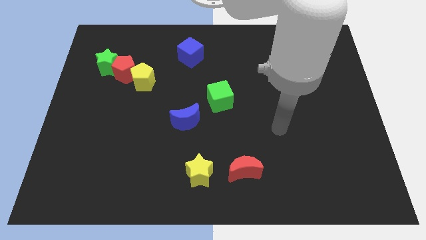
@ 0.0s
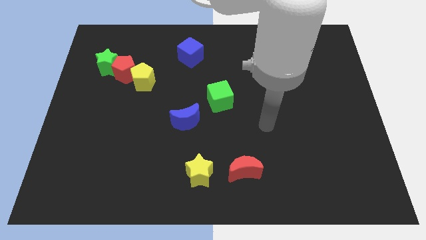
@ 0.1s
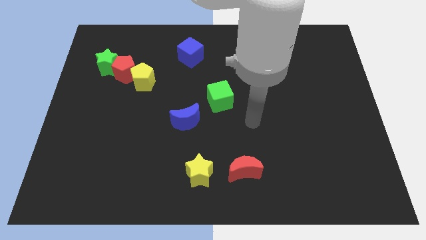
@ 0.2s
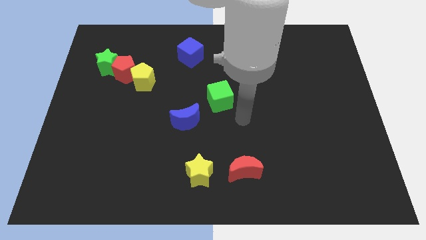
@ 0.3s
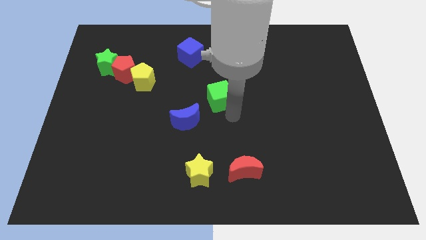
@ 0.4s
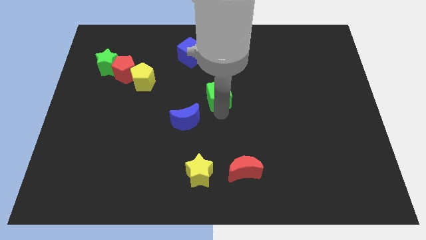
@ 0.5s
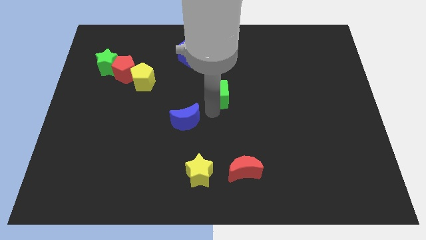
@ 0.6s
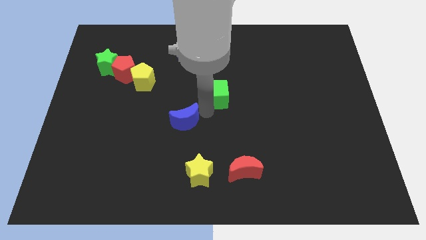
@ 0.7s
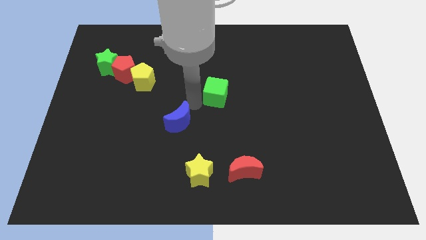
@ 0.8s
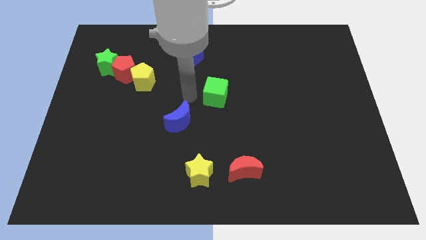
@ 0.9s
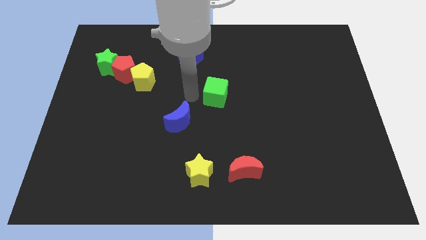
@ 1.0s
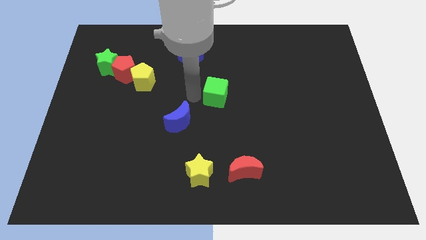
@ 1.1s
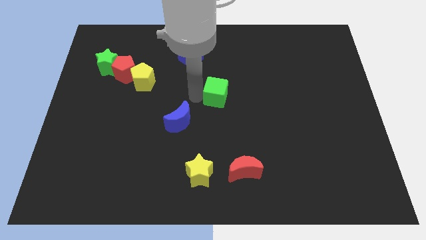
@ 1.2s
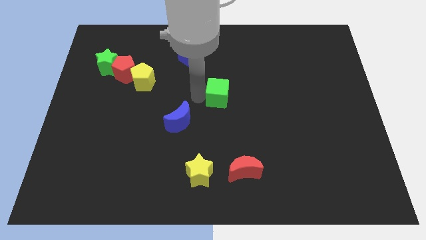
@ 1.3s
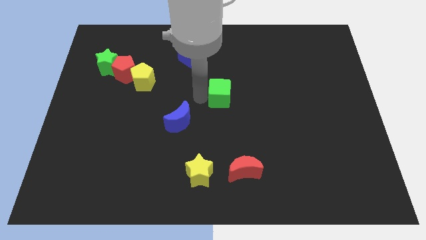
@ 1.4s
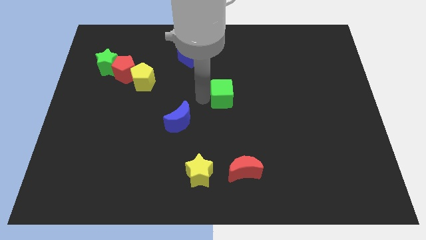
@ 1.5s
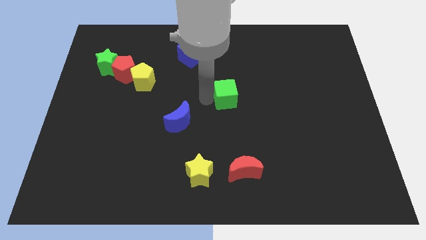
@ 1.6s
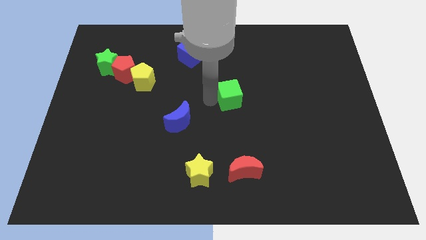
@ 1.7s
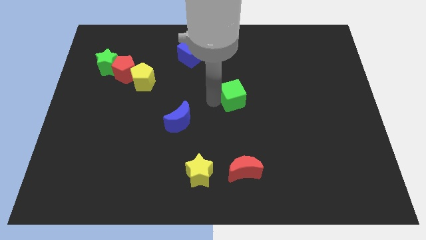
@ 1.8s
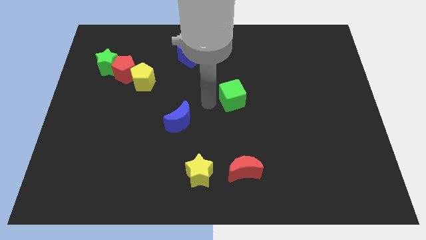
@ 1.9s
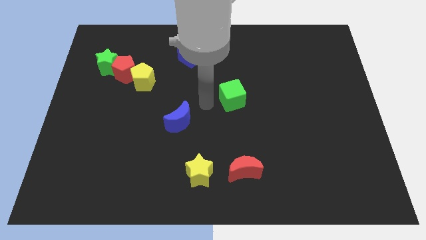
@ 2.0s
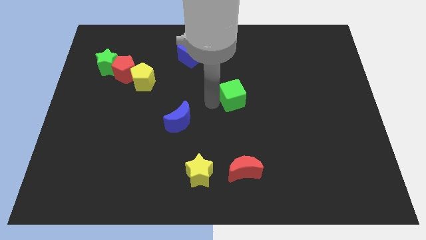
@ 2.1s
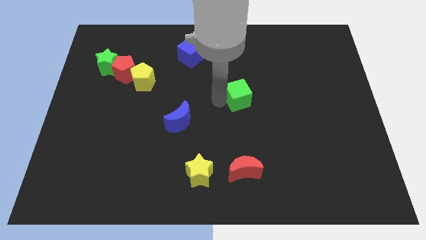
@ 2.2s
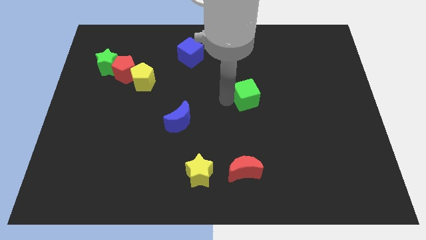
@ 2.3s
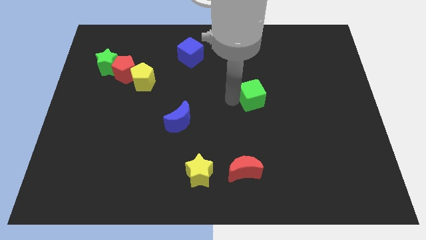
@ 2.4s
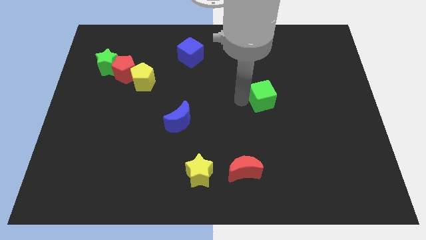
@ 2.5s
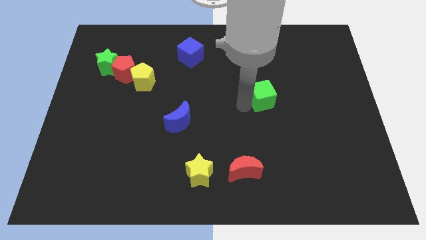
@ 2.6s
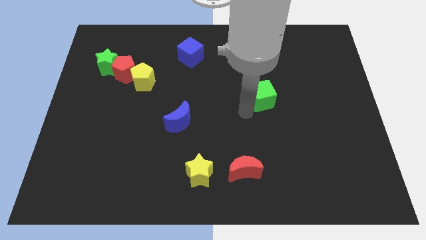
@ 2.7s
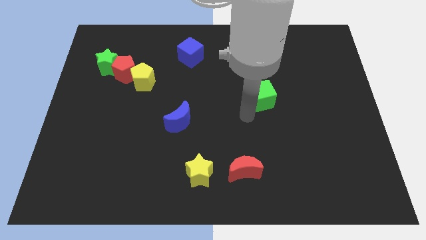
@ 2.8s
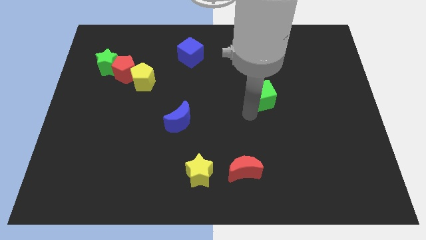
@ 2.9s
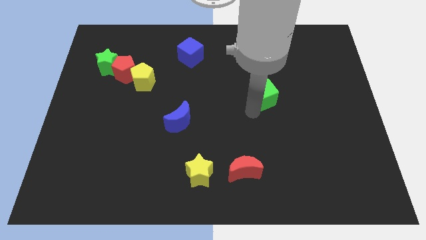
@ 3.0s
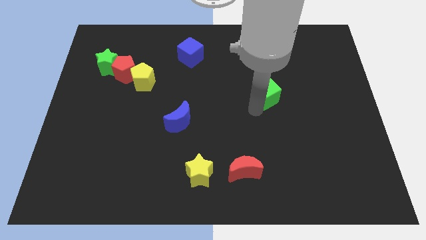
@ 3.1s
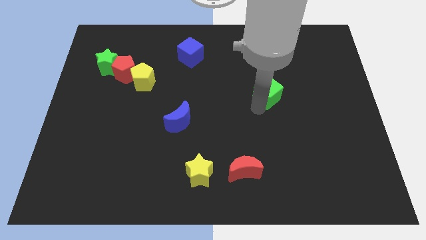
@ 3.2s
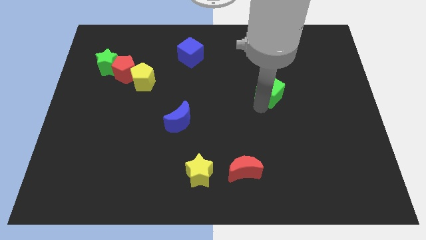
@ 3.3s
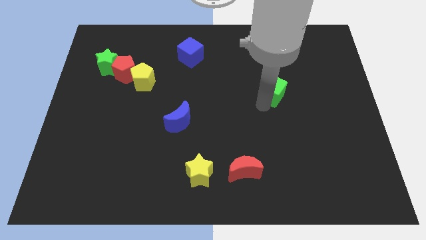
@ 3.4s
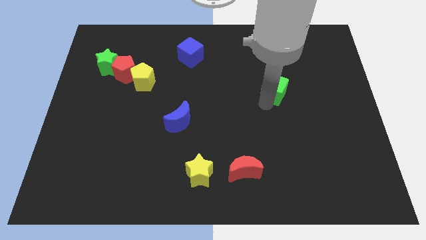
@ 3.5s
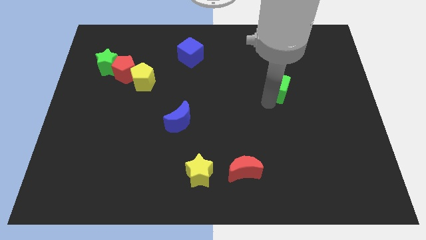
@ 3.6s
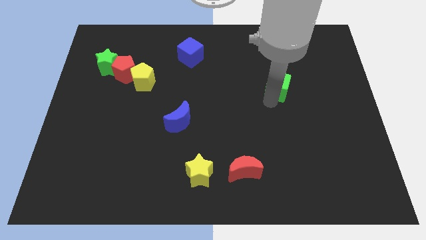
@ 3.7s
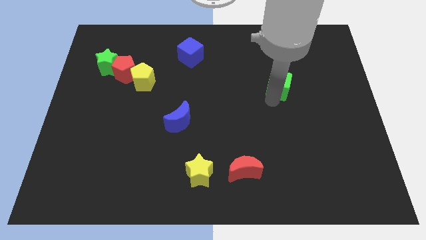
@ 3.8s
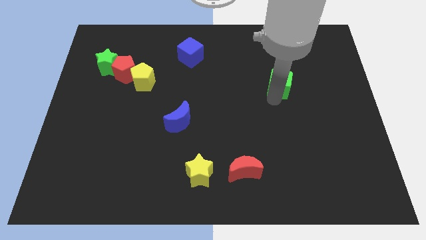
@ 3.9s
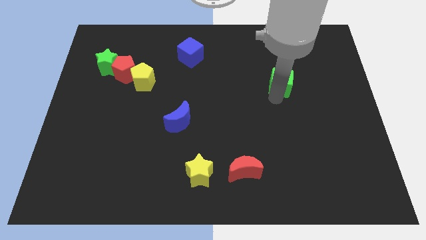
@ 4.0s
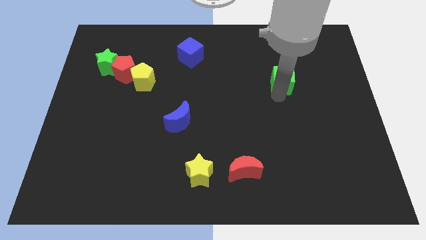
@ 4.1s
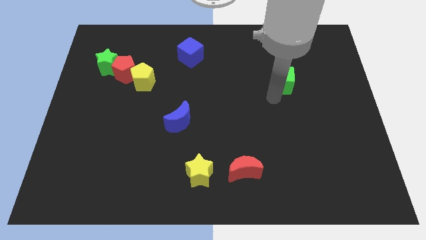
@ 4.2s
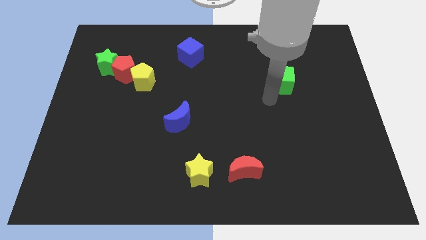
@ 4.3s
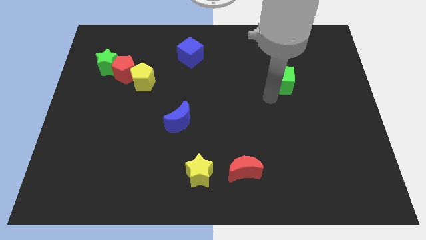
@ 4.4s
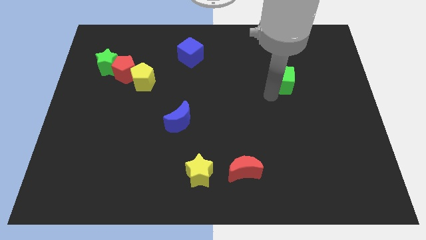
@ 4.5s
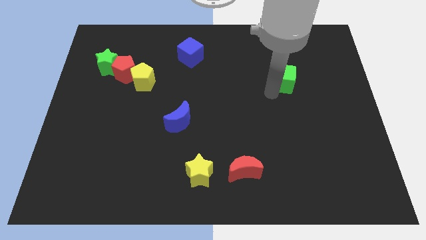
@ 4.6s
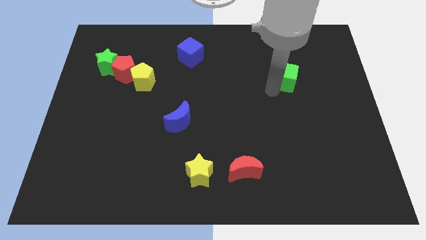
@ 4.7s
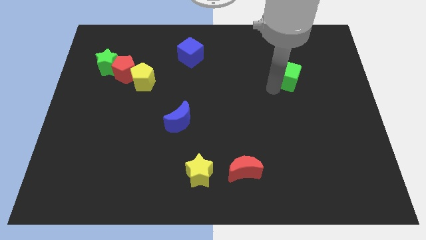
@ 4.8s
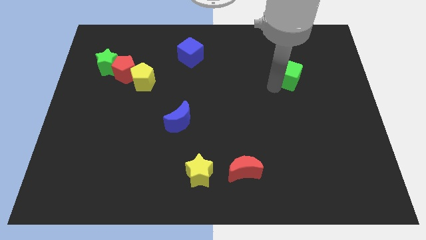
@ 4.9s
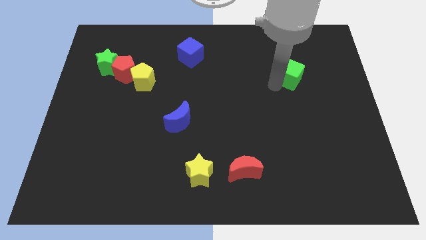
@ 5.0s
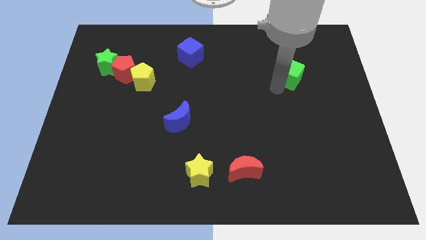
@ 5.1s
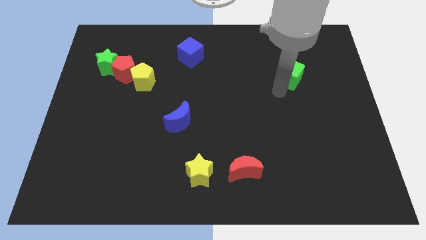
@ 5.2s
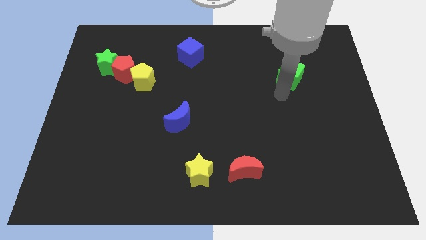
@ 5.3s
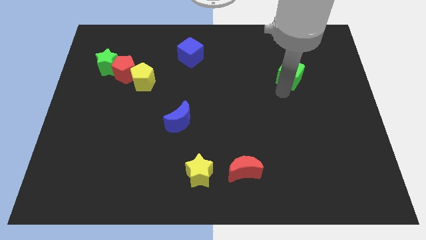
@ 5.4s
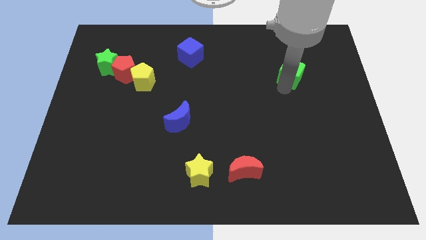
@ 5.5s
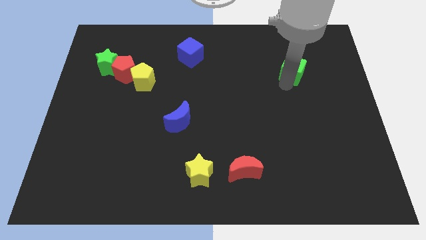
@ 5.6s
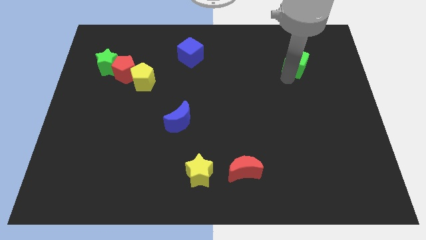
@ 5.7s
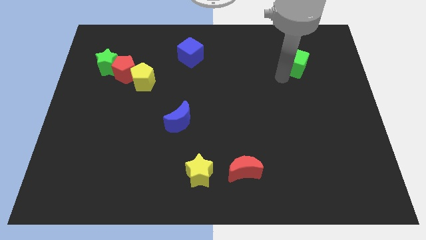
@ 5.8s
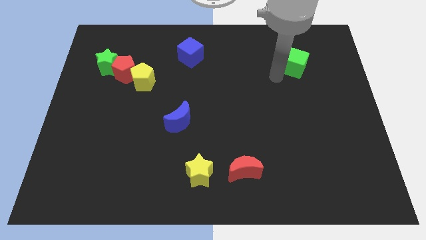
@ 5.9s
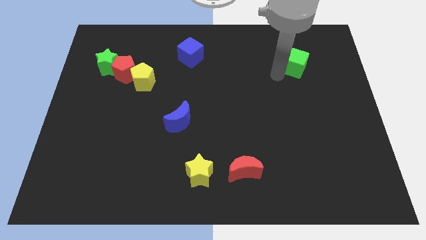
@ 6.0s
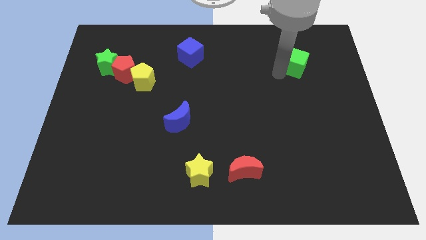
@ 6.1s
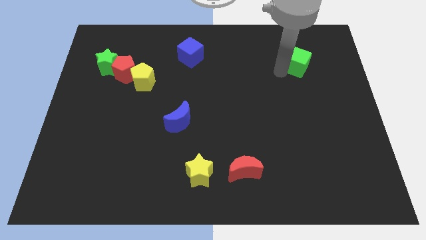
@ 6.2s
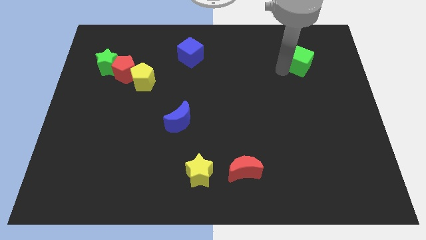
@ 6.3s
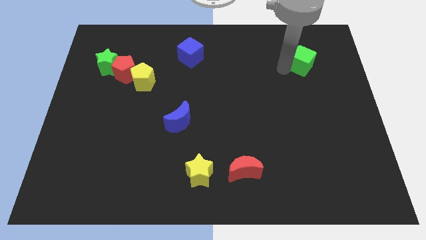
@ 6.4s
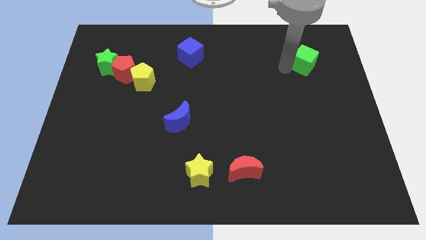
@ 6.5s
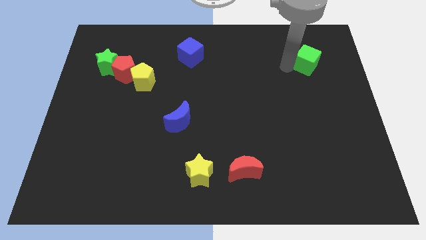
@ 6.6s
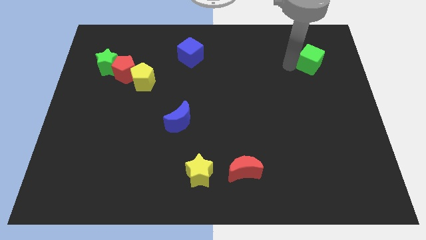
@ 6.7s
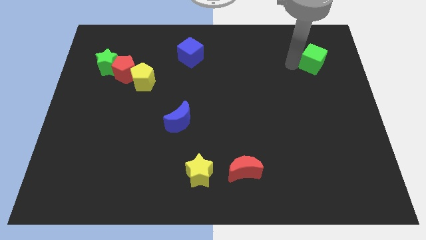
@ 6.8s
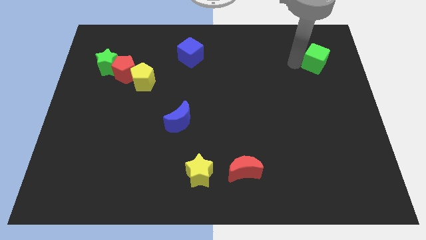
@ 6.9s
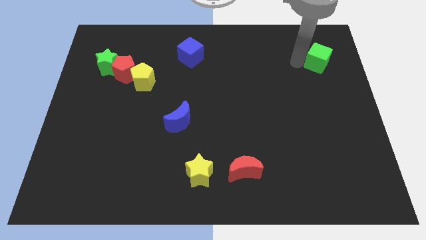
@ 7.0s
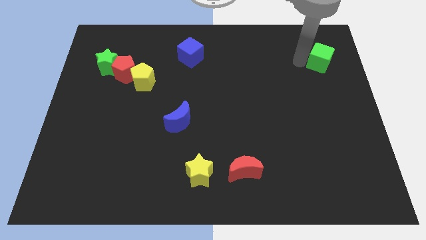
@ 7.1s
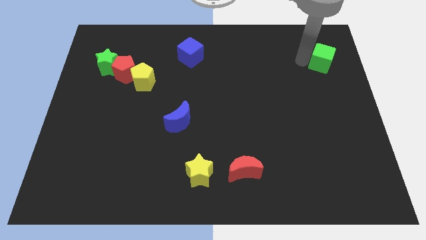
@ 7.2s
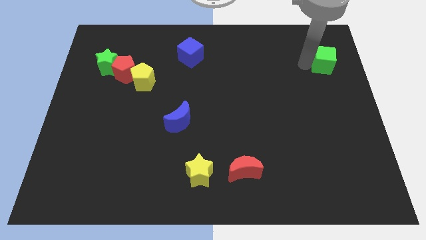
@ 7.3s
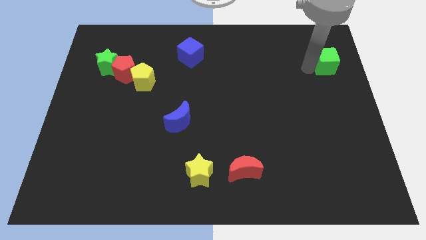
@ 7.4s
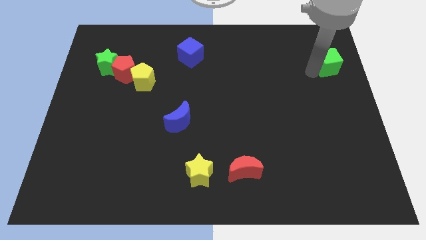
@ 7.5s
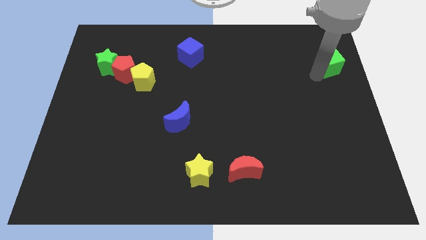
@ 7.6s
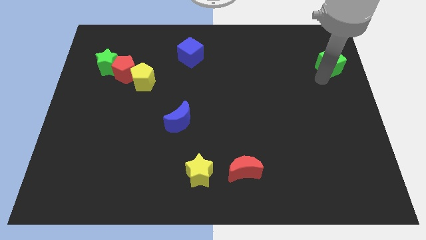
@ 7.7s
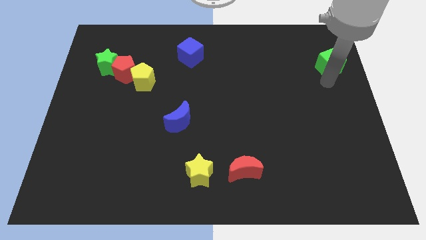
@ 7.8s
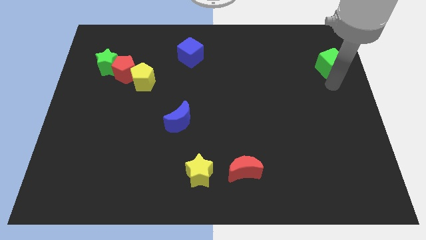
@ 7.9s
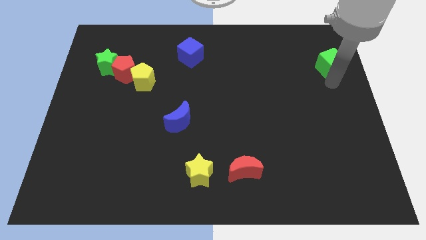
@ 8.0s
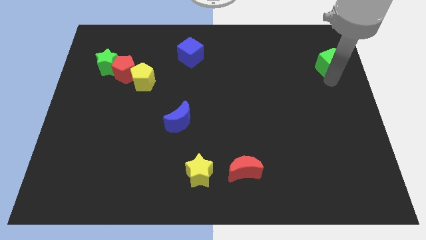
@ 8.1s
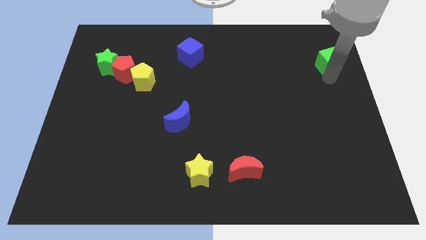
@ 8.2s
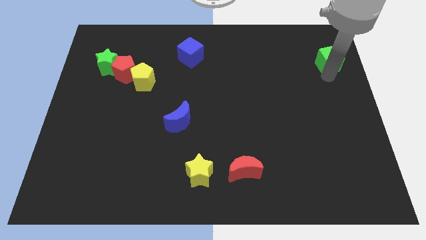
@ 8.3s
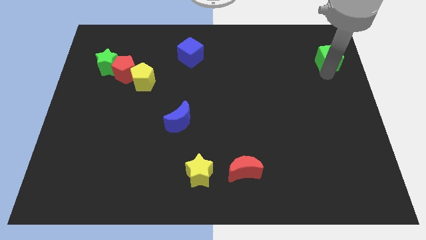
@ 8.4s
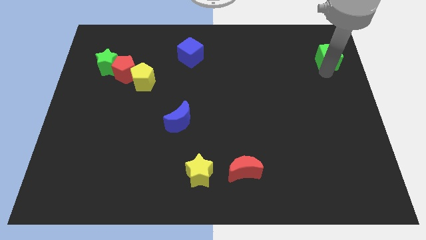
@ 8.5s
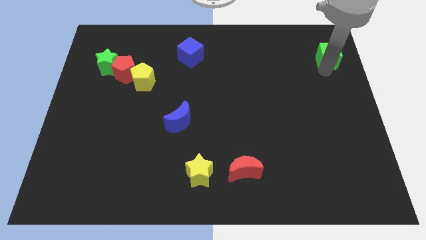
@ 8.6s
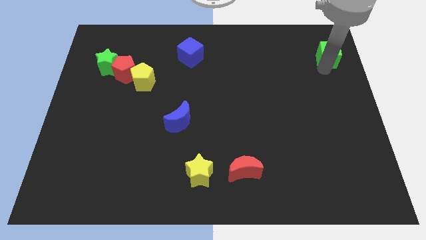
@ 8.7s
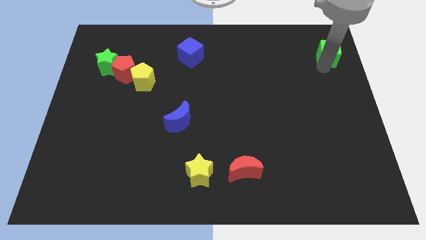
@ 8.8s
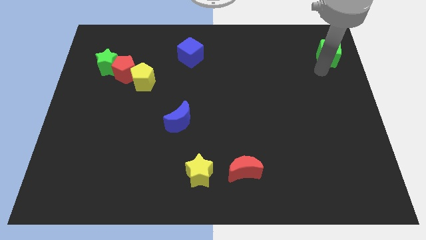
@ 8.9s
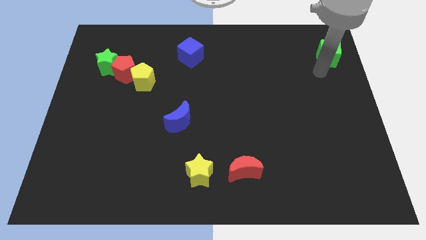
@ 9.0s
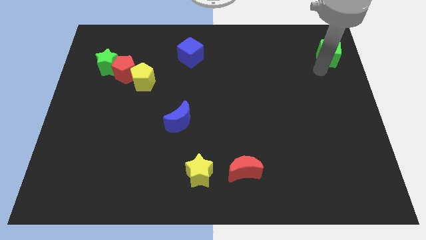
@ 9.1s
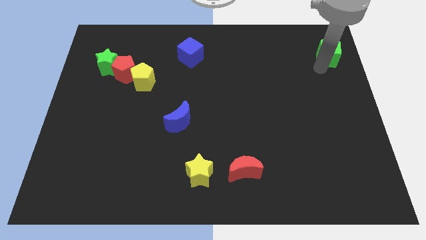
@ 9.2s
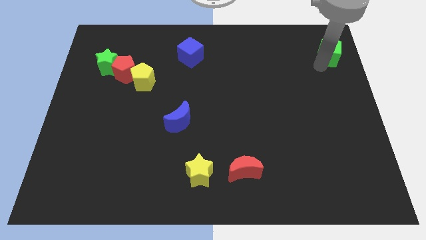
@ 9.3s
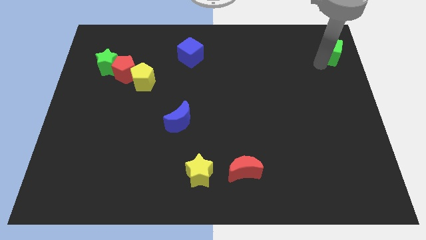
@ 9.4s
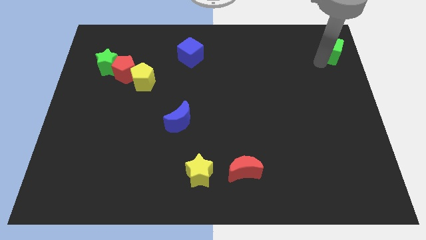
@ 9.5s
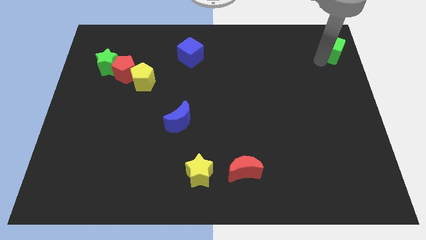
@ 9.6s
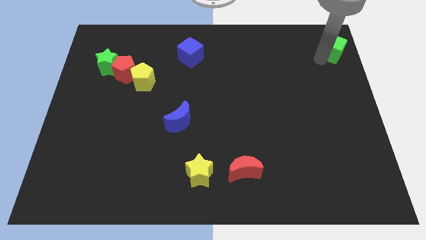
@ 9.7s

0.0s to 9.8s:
push the green cube to the upper right corner
